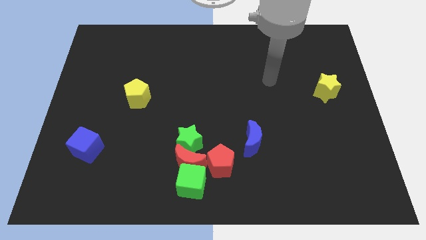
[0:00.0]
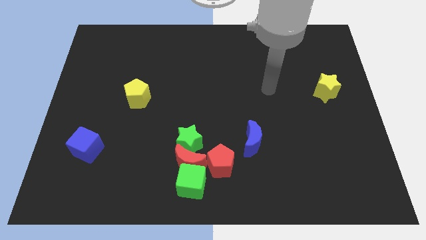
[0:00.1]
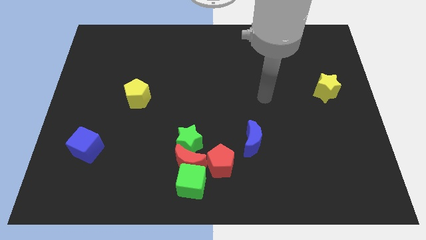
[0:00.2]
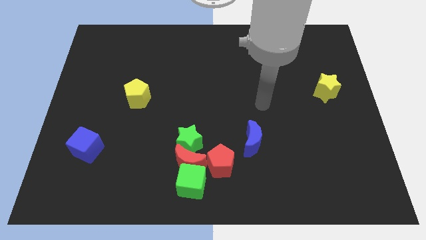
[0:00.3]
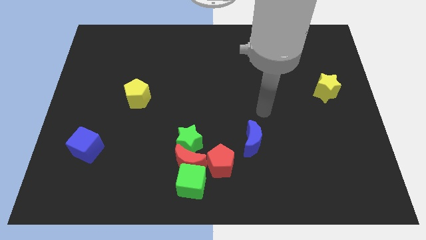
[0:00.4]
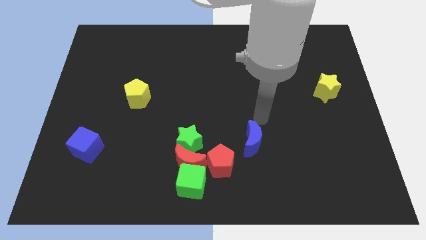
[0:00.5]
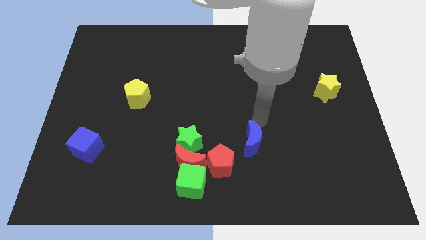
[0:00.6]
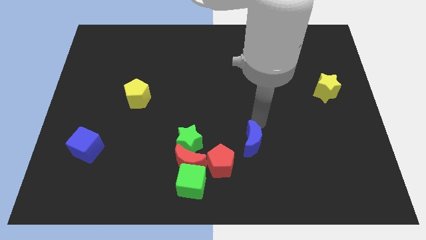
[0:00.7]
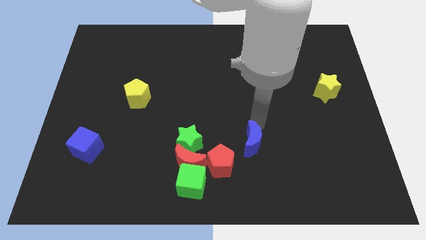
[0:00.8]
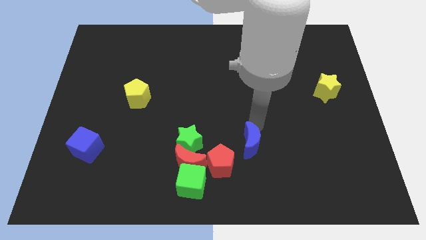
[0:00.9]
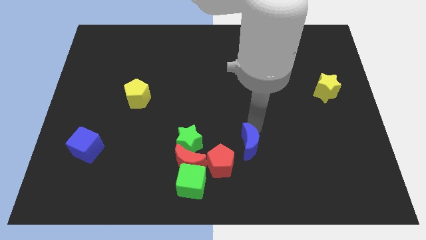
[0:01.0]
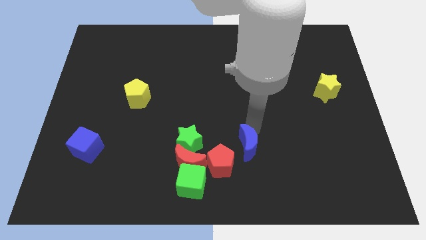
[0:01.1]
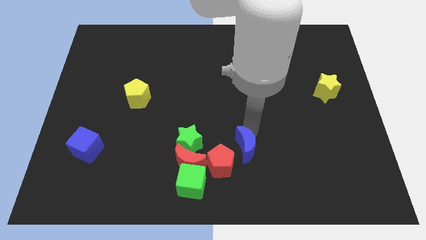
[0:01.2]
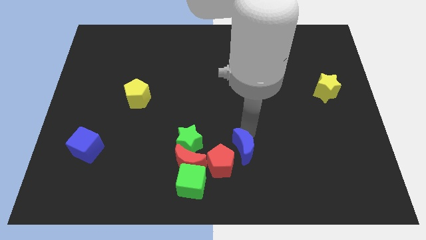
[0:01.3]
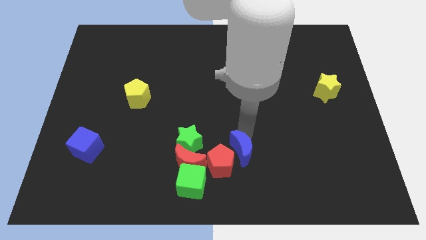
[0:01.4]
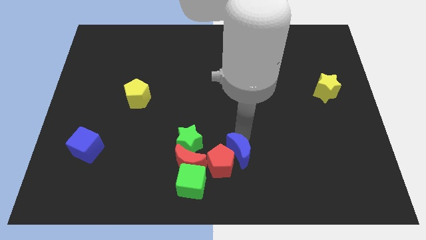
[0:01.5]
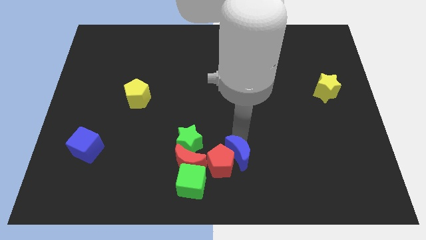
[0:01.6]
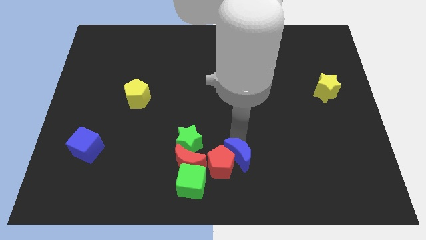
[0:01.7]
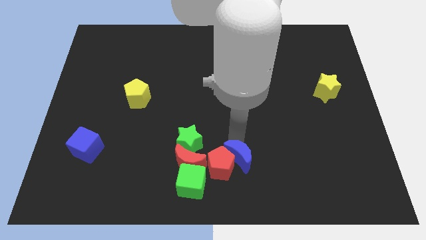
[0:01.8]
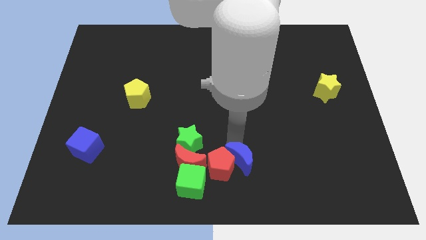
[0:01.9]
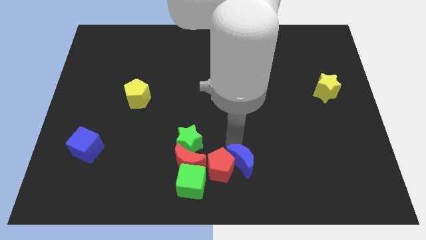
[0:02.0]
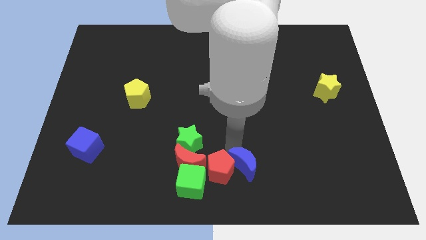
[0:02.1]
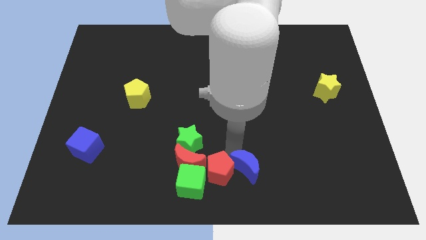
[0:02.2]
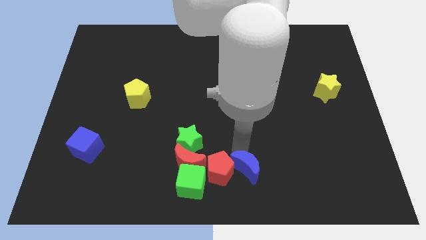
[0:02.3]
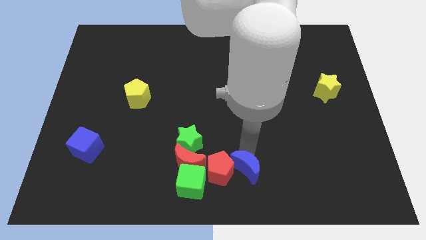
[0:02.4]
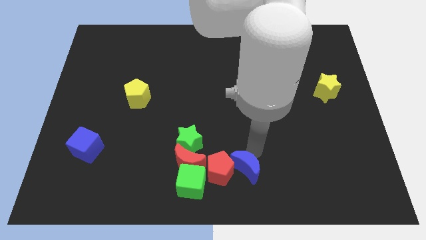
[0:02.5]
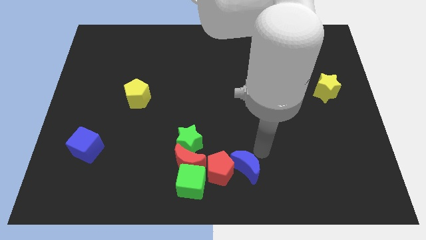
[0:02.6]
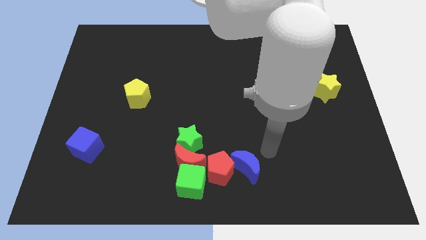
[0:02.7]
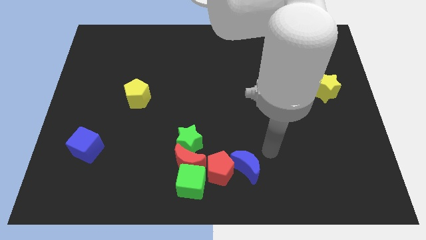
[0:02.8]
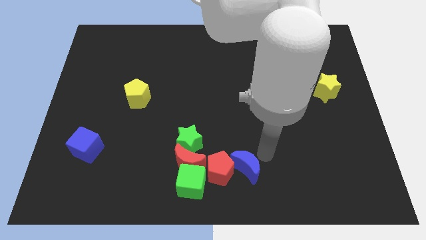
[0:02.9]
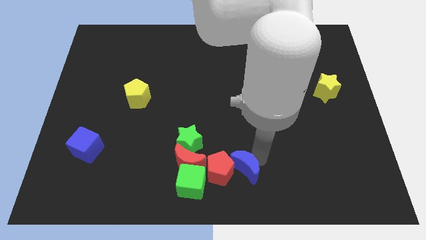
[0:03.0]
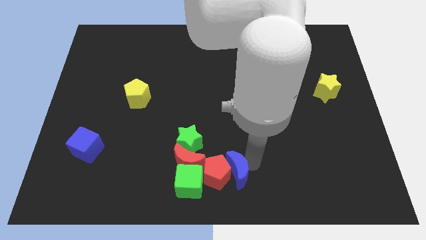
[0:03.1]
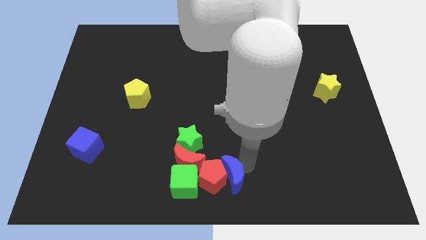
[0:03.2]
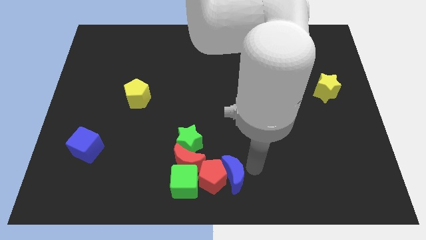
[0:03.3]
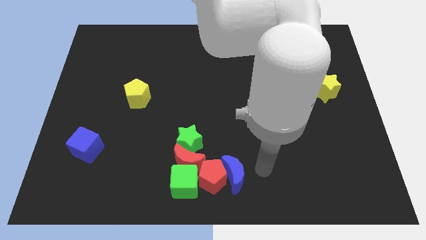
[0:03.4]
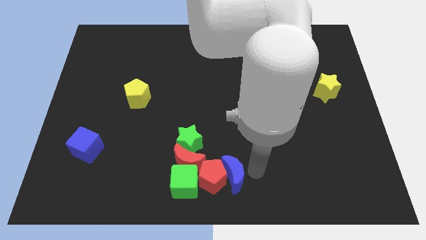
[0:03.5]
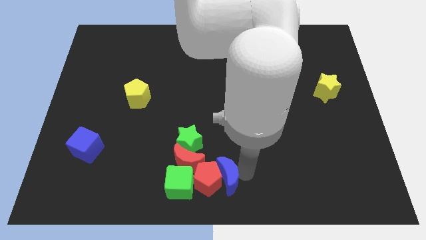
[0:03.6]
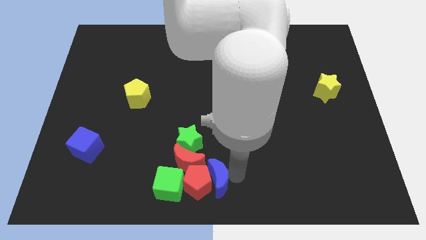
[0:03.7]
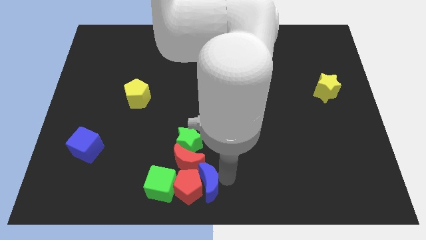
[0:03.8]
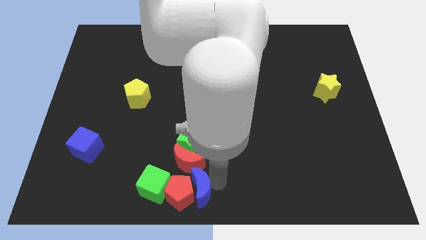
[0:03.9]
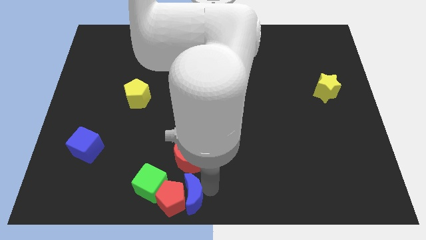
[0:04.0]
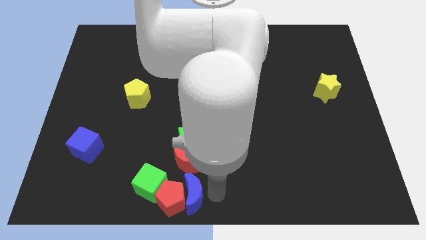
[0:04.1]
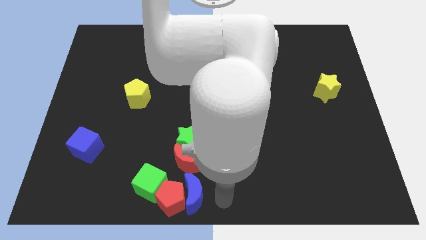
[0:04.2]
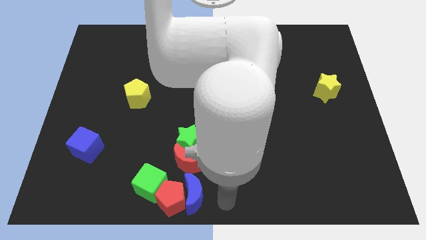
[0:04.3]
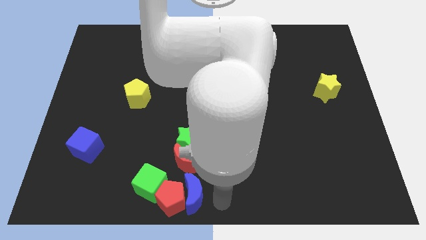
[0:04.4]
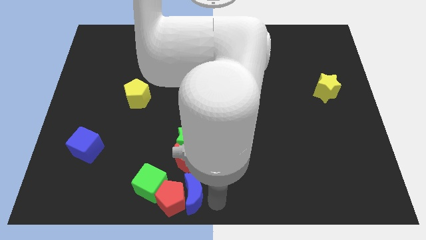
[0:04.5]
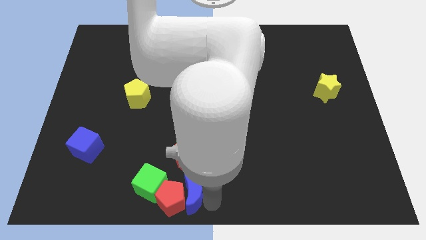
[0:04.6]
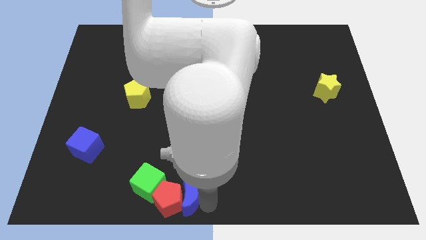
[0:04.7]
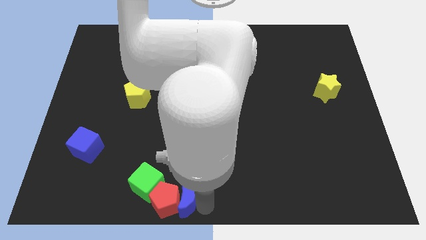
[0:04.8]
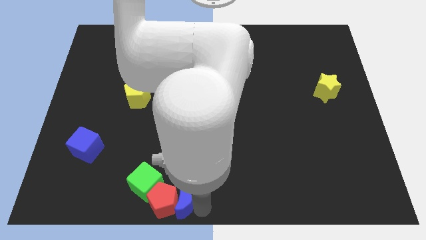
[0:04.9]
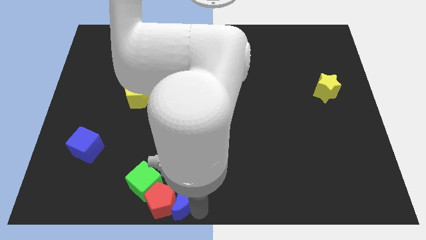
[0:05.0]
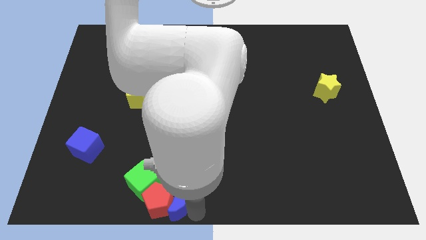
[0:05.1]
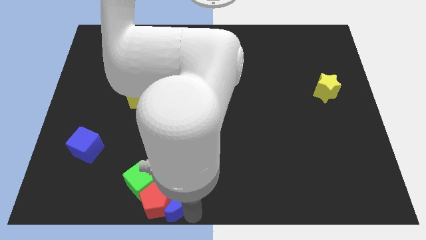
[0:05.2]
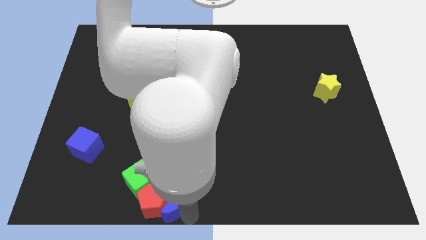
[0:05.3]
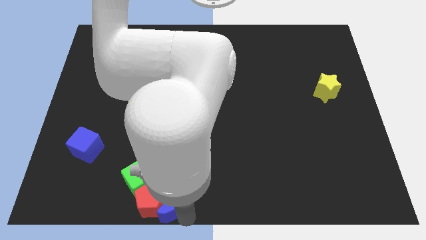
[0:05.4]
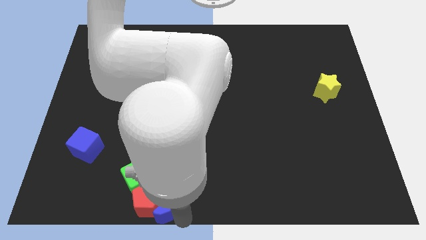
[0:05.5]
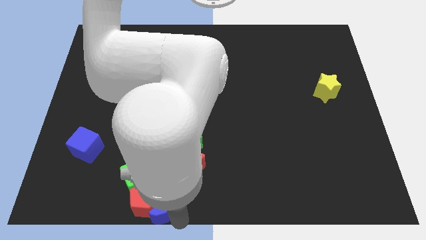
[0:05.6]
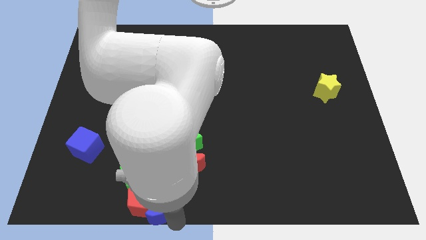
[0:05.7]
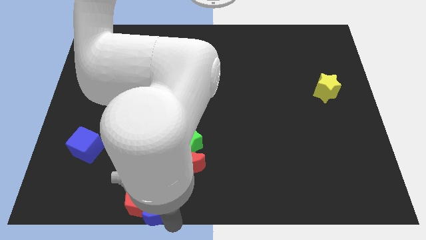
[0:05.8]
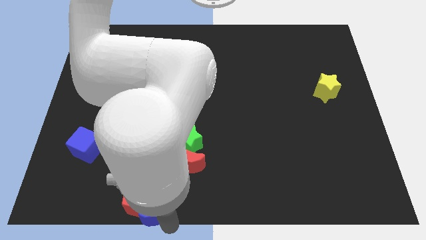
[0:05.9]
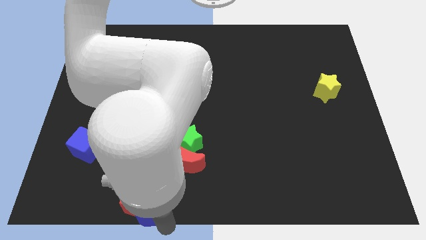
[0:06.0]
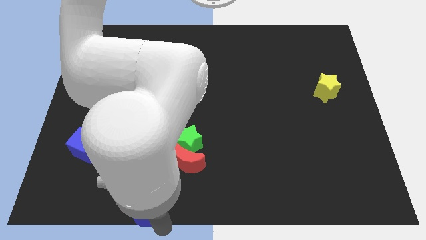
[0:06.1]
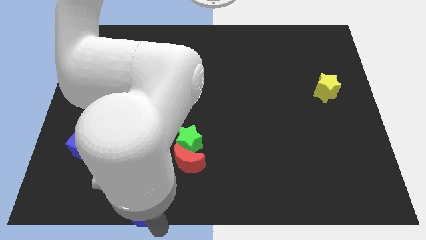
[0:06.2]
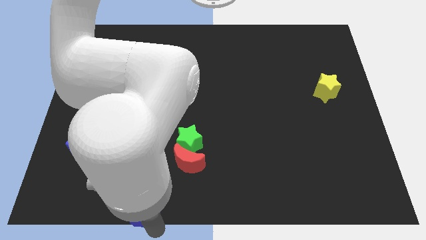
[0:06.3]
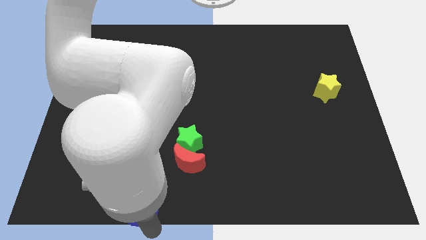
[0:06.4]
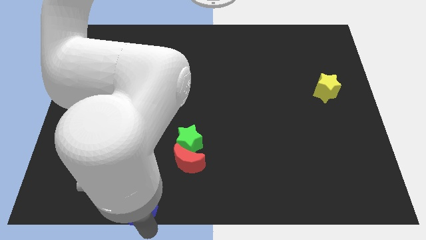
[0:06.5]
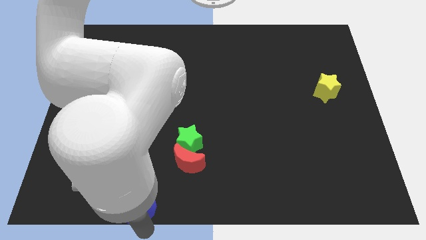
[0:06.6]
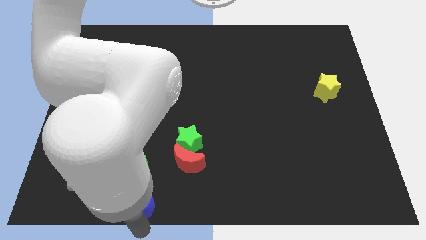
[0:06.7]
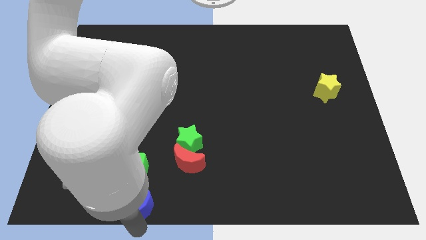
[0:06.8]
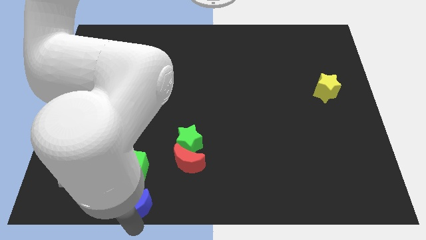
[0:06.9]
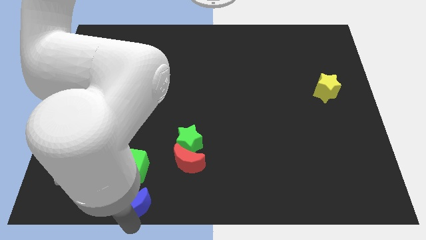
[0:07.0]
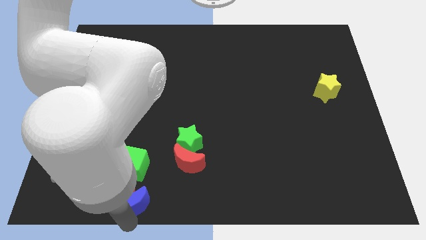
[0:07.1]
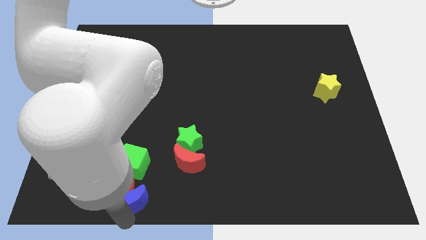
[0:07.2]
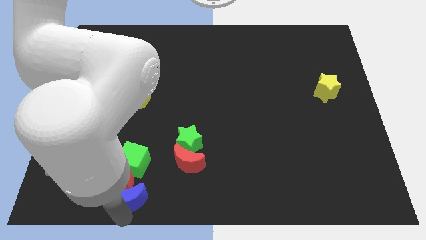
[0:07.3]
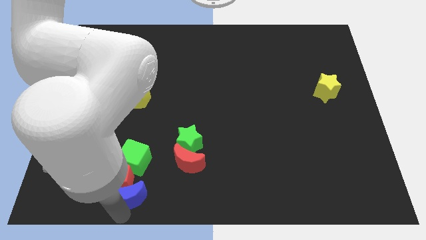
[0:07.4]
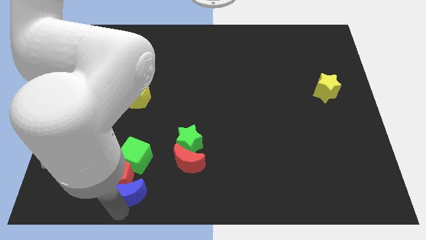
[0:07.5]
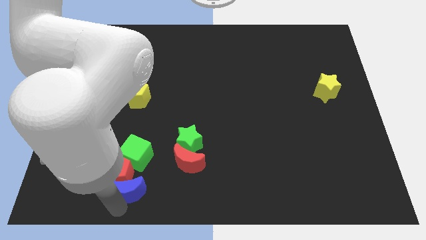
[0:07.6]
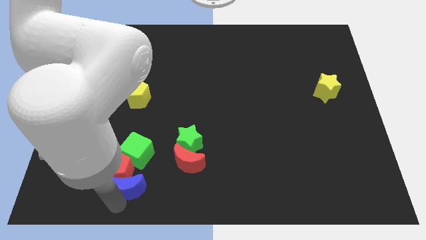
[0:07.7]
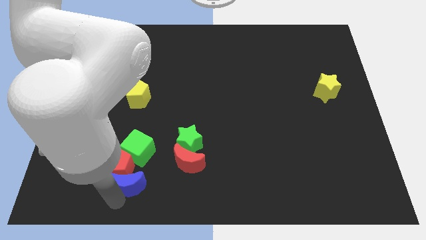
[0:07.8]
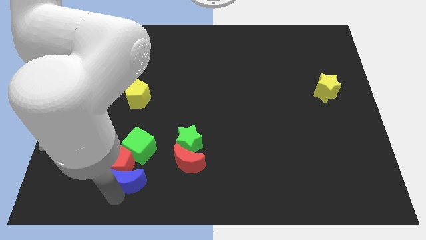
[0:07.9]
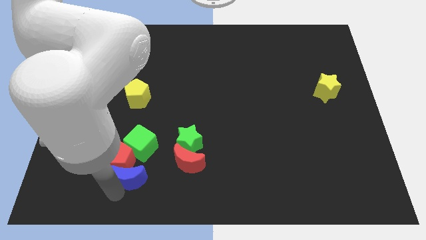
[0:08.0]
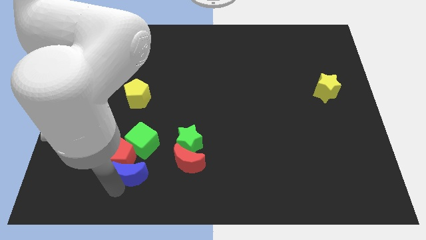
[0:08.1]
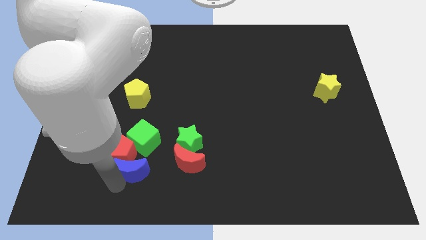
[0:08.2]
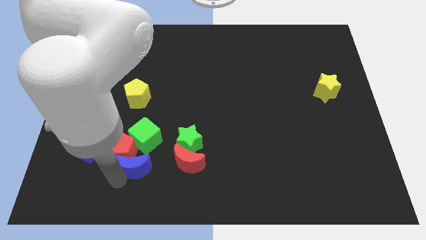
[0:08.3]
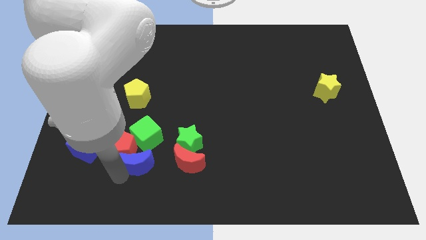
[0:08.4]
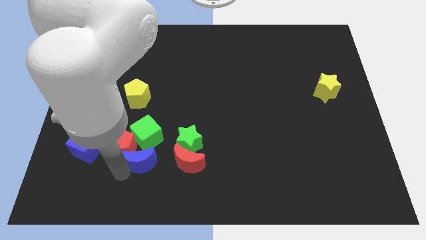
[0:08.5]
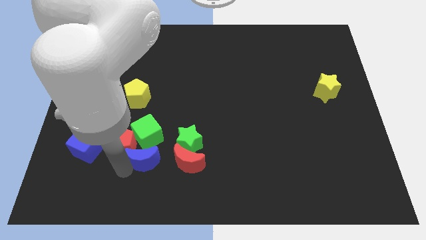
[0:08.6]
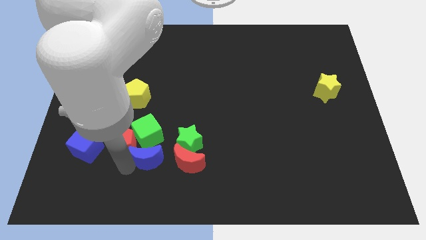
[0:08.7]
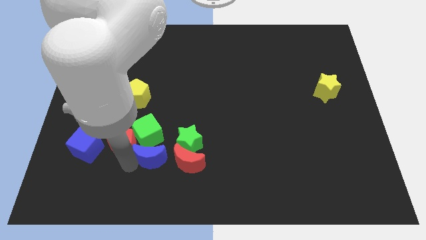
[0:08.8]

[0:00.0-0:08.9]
push the blue moon towards the green cube
